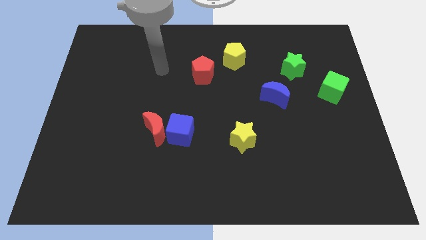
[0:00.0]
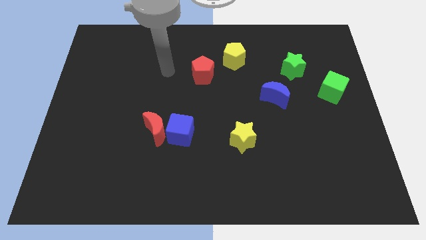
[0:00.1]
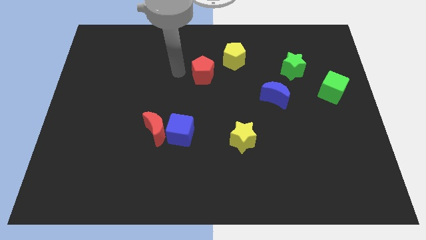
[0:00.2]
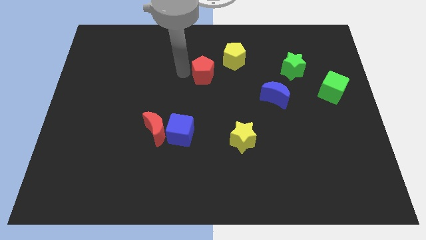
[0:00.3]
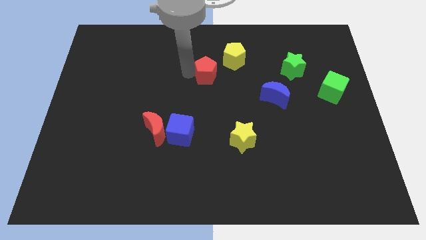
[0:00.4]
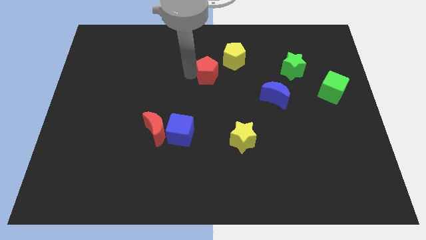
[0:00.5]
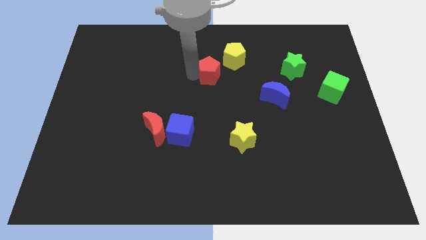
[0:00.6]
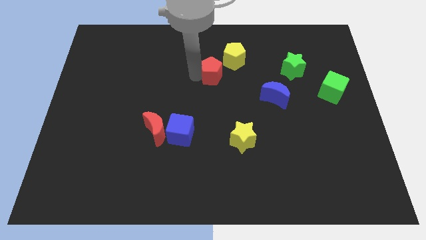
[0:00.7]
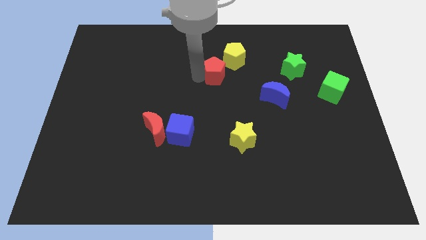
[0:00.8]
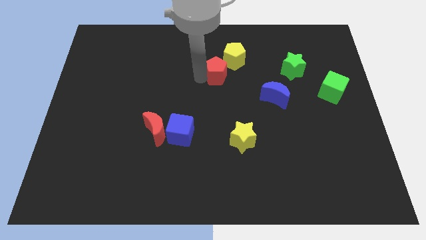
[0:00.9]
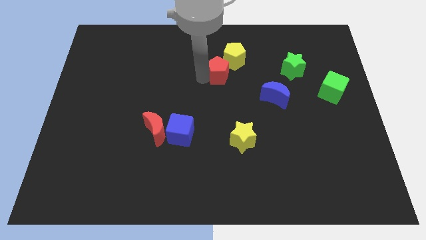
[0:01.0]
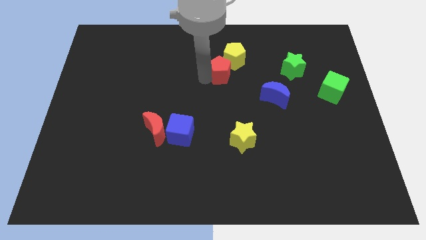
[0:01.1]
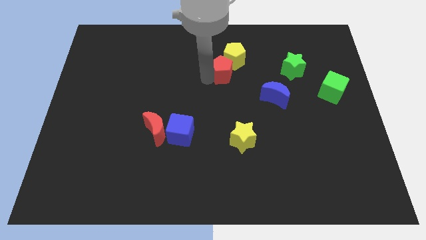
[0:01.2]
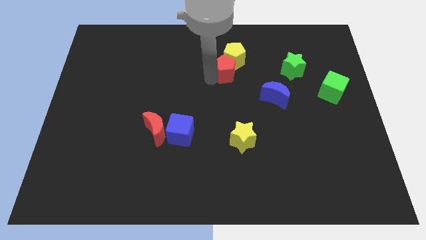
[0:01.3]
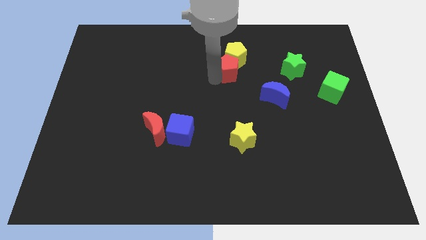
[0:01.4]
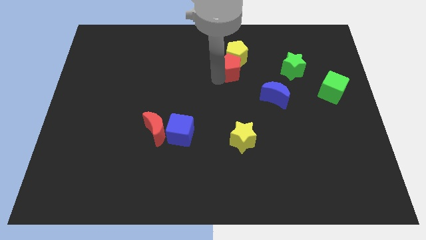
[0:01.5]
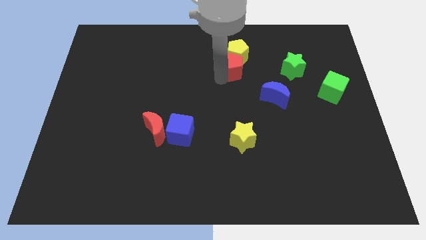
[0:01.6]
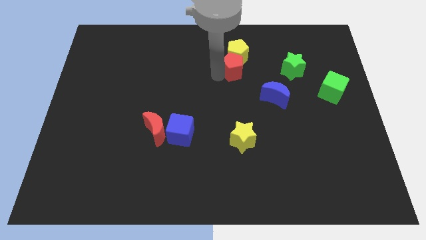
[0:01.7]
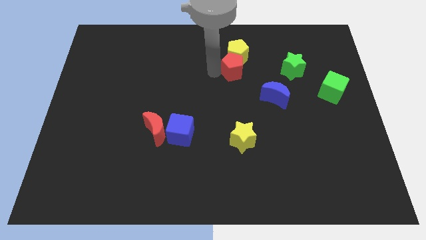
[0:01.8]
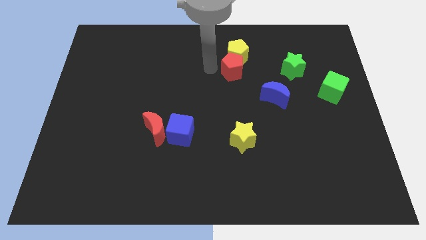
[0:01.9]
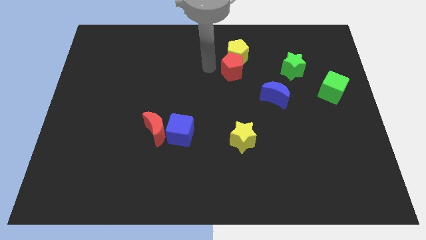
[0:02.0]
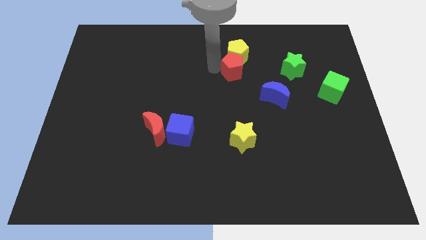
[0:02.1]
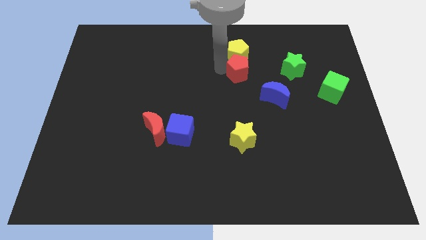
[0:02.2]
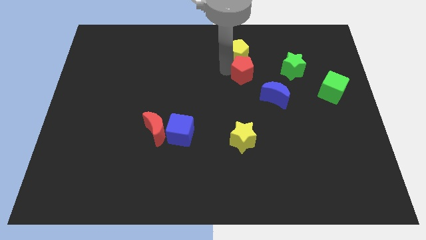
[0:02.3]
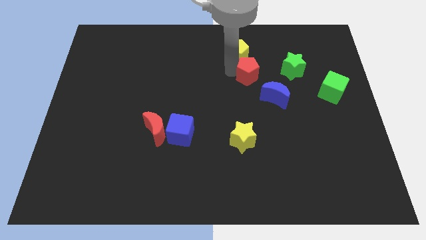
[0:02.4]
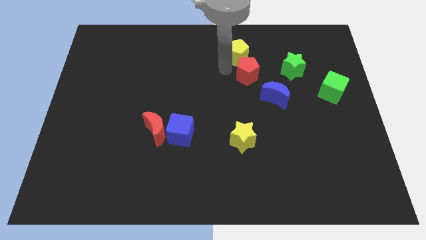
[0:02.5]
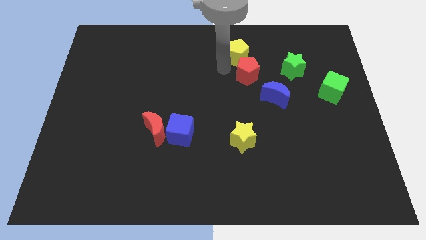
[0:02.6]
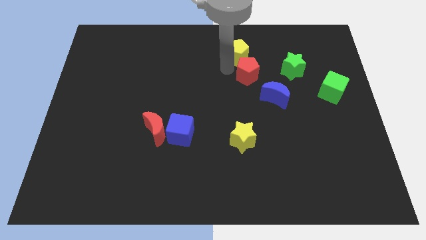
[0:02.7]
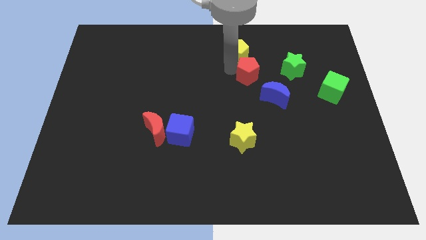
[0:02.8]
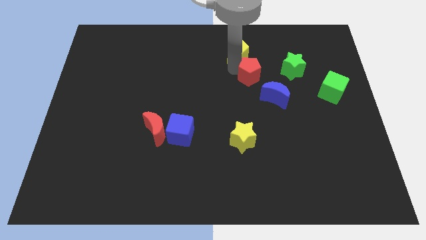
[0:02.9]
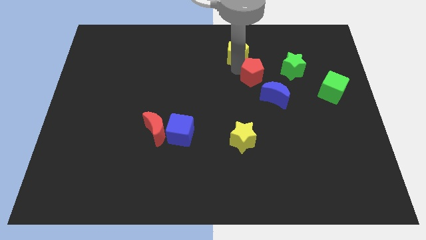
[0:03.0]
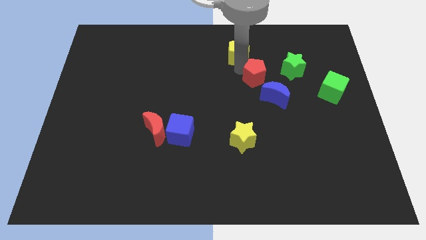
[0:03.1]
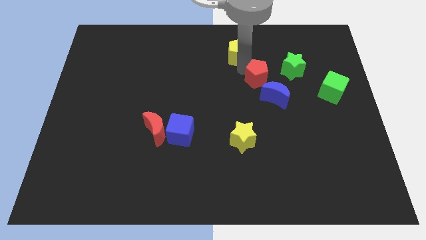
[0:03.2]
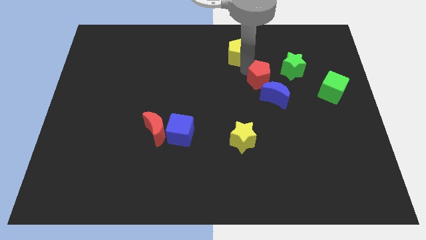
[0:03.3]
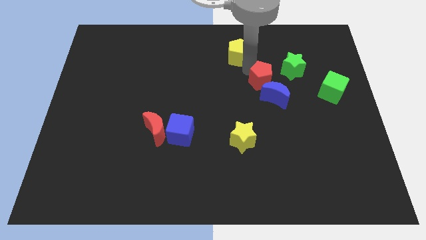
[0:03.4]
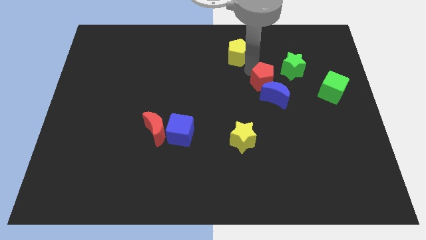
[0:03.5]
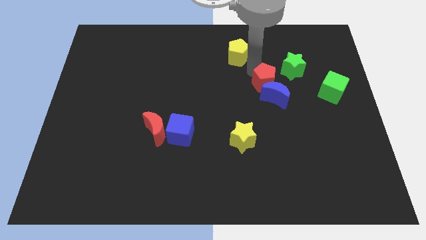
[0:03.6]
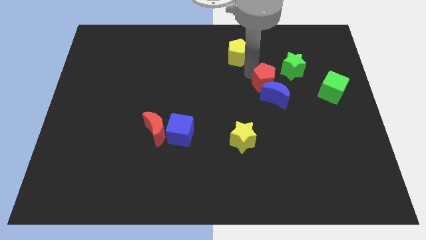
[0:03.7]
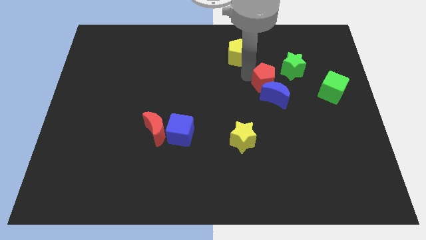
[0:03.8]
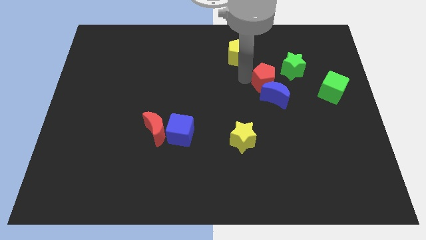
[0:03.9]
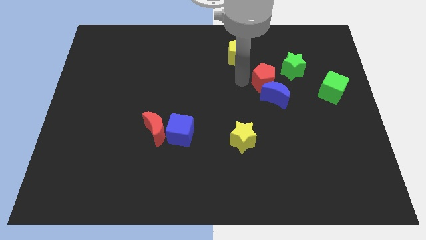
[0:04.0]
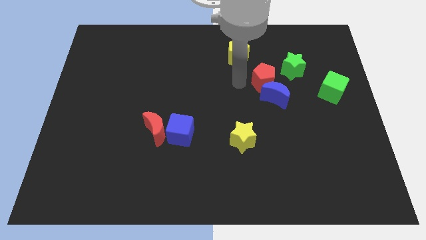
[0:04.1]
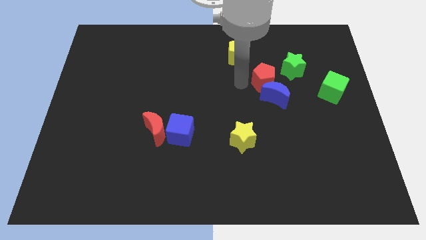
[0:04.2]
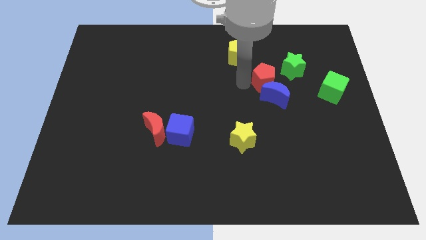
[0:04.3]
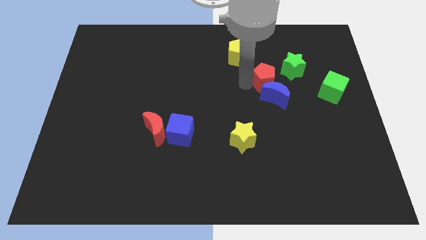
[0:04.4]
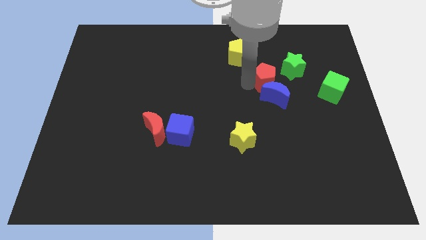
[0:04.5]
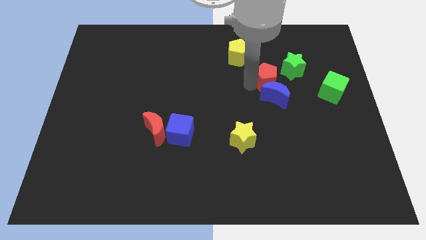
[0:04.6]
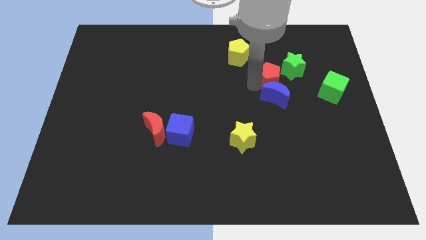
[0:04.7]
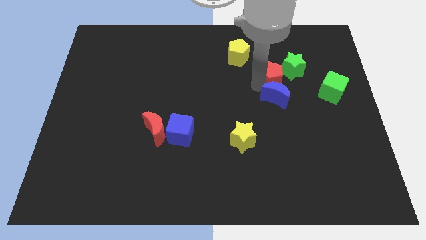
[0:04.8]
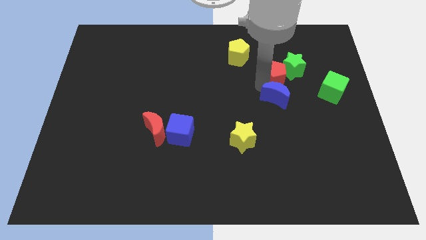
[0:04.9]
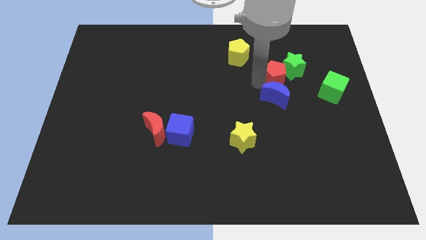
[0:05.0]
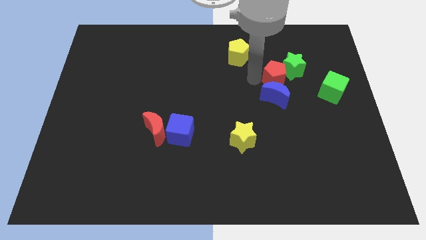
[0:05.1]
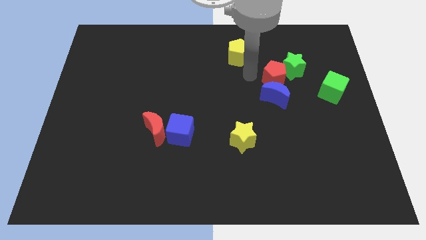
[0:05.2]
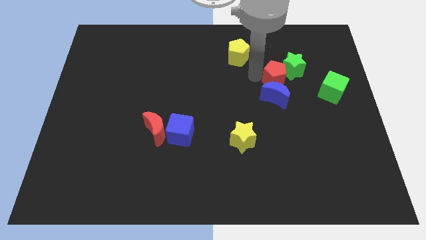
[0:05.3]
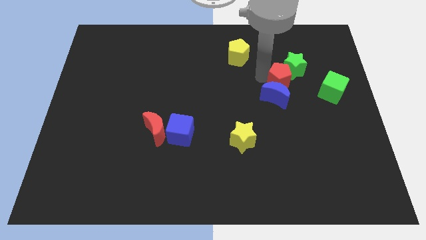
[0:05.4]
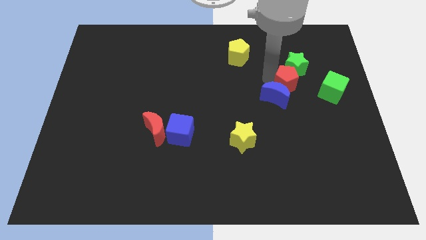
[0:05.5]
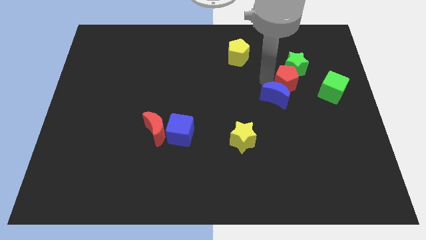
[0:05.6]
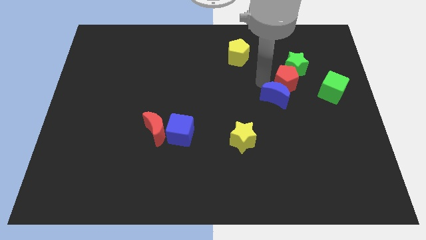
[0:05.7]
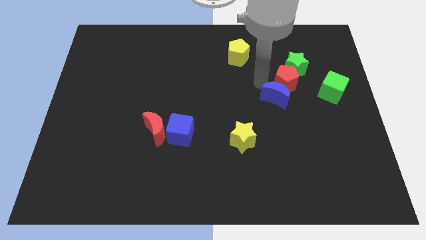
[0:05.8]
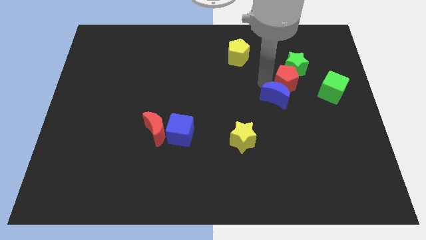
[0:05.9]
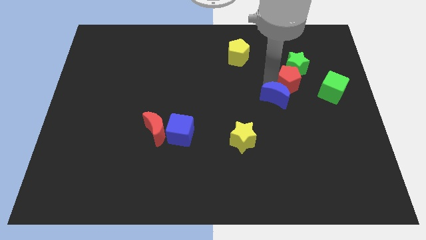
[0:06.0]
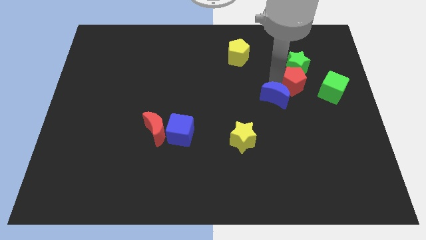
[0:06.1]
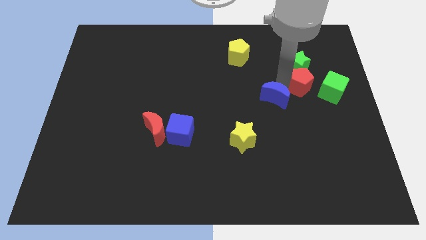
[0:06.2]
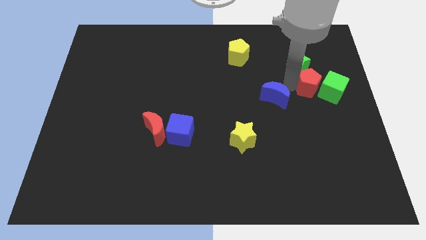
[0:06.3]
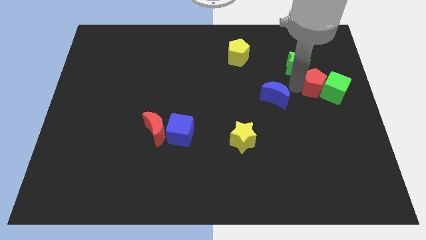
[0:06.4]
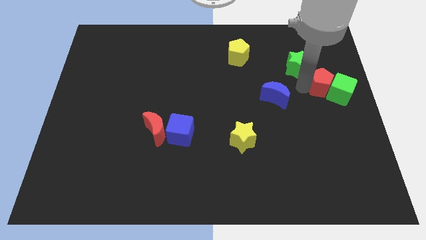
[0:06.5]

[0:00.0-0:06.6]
put the red pentagon to the right side of the board
